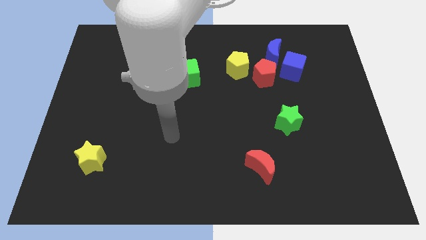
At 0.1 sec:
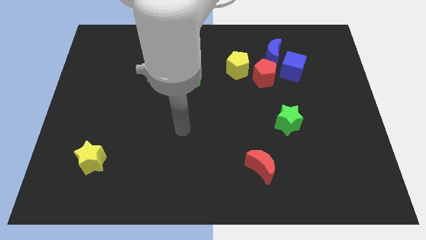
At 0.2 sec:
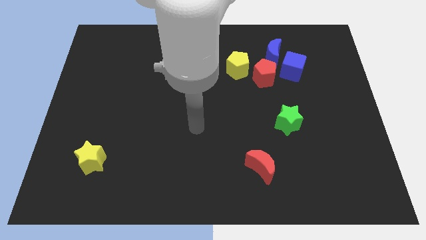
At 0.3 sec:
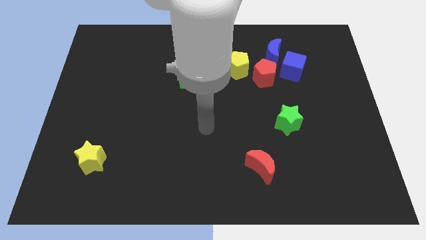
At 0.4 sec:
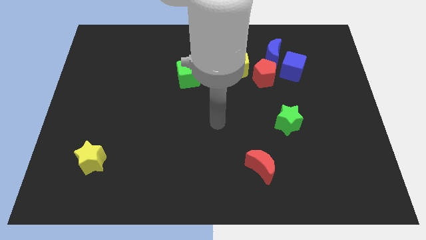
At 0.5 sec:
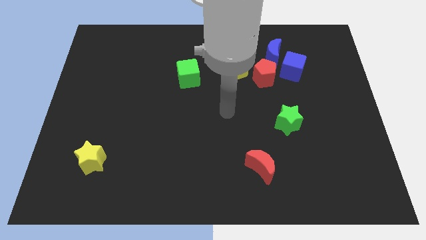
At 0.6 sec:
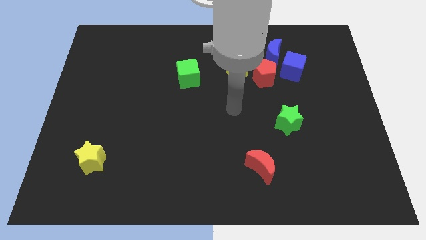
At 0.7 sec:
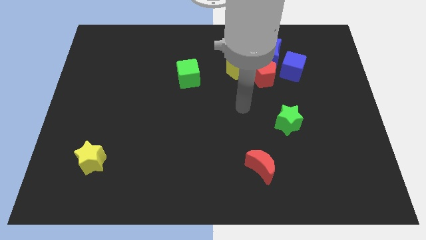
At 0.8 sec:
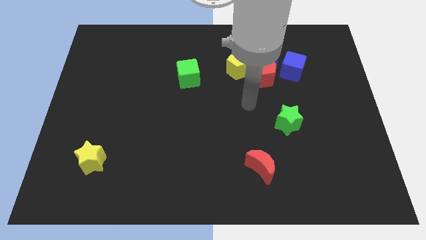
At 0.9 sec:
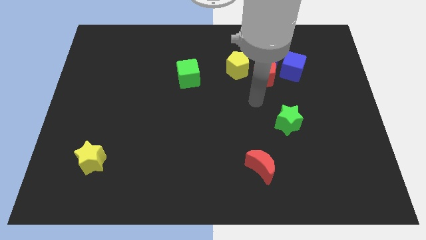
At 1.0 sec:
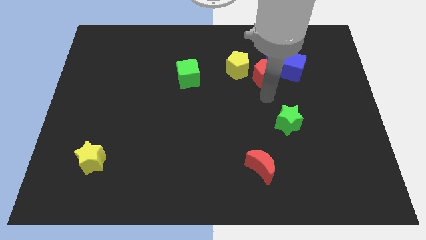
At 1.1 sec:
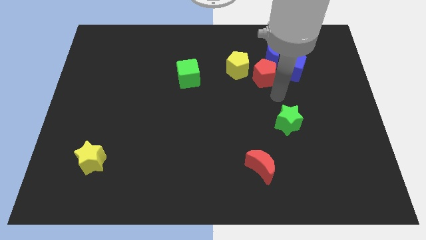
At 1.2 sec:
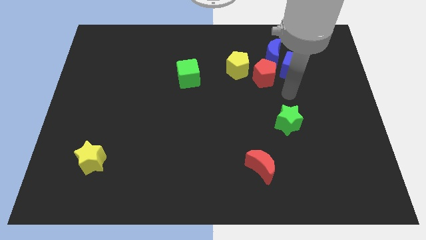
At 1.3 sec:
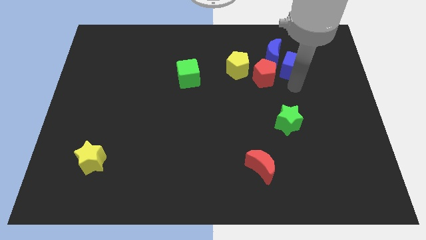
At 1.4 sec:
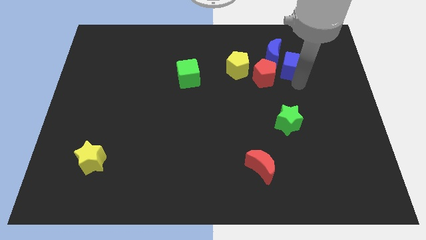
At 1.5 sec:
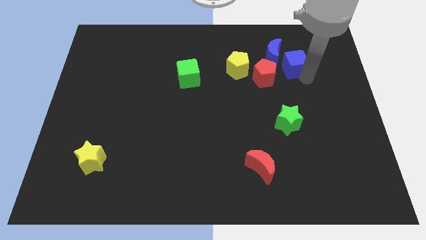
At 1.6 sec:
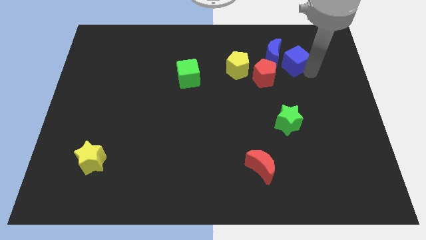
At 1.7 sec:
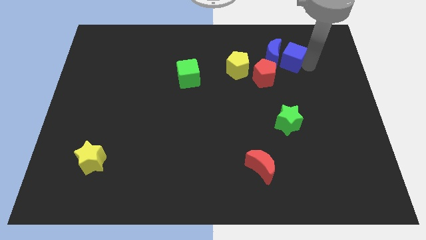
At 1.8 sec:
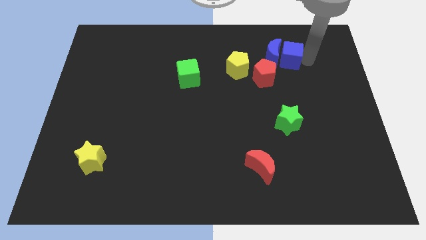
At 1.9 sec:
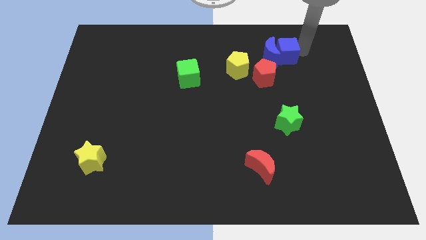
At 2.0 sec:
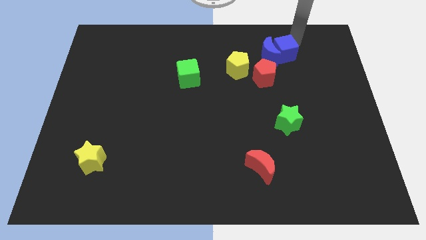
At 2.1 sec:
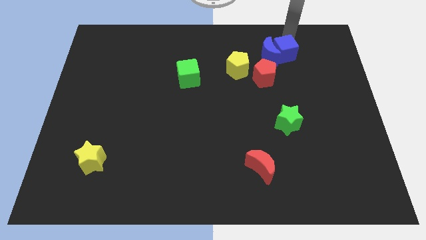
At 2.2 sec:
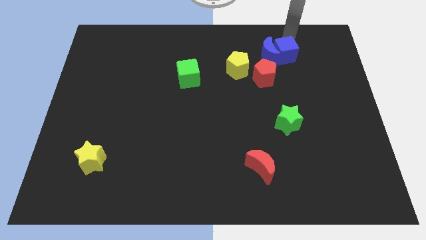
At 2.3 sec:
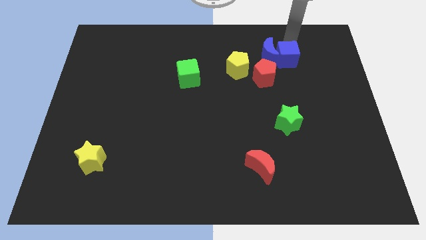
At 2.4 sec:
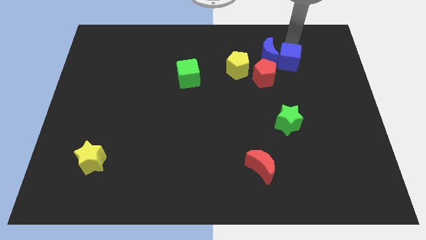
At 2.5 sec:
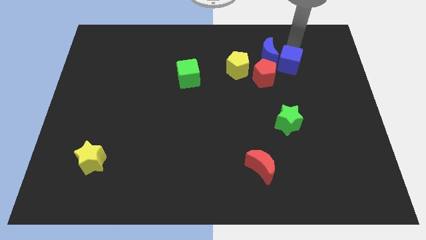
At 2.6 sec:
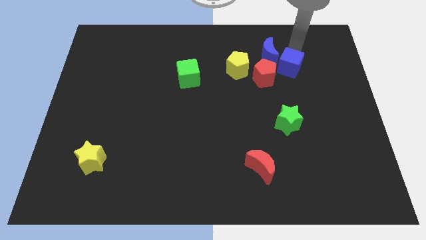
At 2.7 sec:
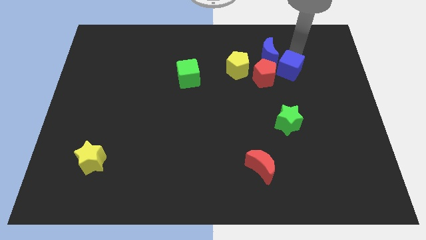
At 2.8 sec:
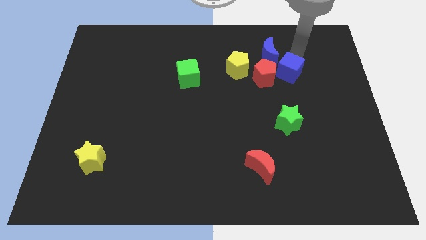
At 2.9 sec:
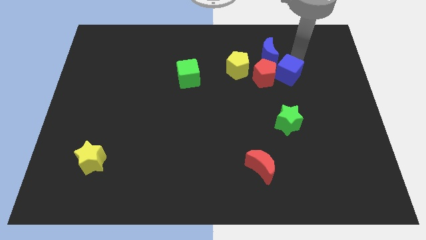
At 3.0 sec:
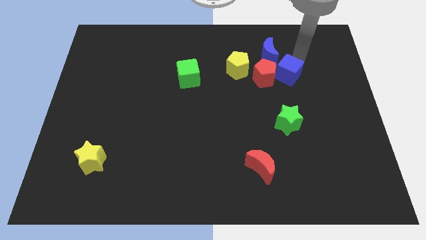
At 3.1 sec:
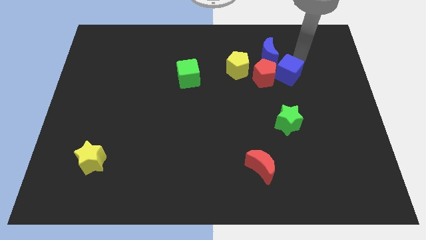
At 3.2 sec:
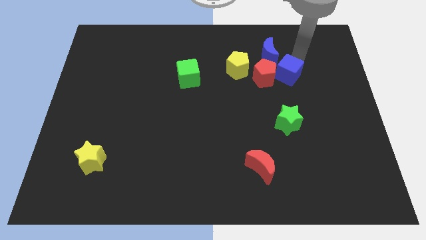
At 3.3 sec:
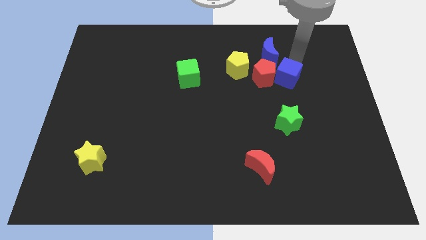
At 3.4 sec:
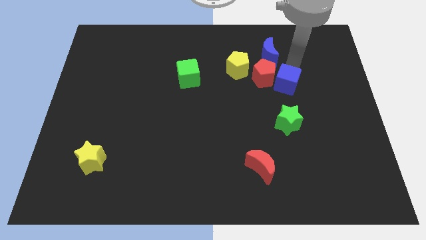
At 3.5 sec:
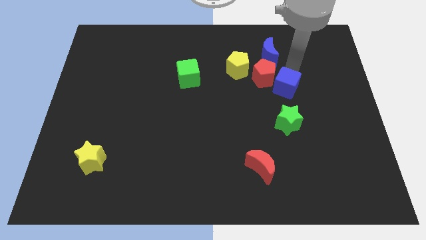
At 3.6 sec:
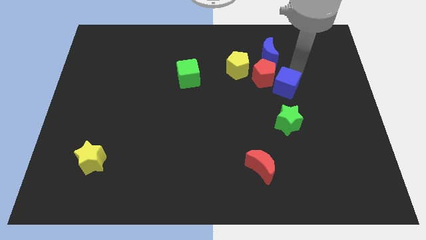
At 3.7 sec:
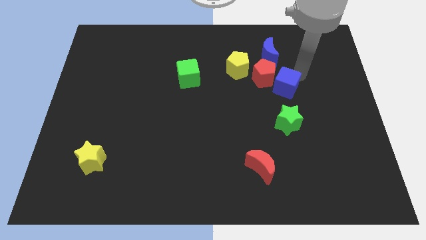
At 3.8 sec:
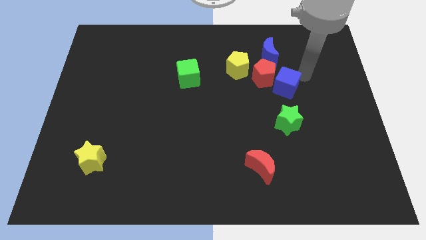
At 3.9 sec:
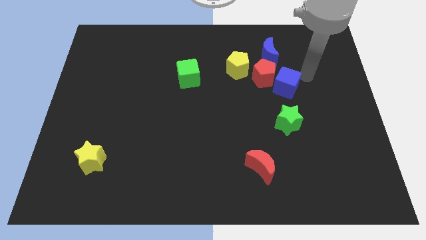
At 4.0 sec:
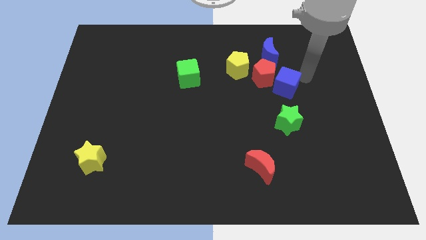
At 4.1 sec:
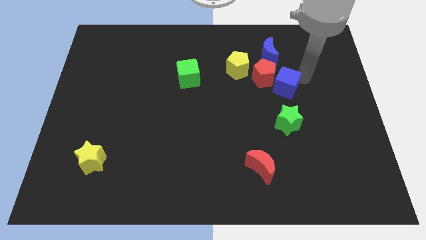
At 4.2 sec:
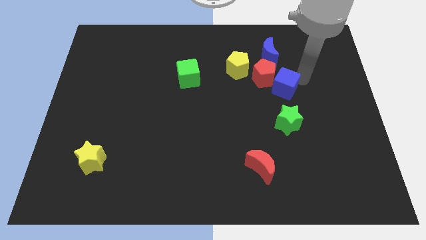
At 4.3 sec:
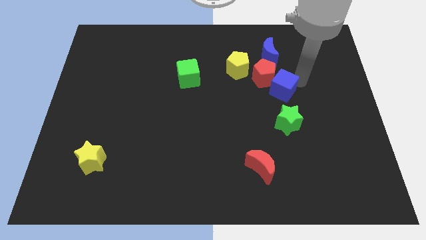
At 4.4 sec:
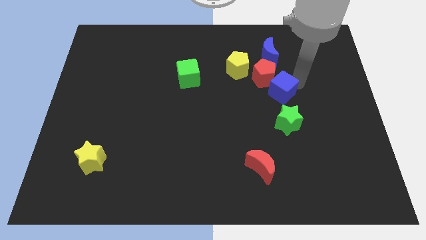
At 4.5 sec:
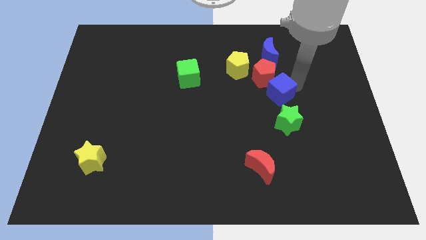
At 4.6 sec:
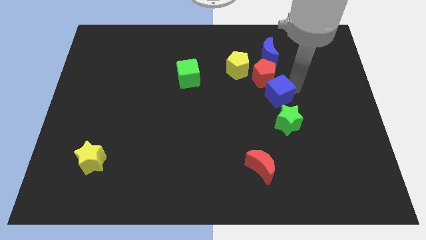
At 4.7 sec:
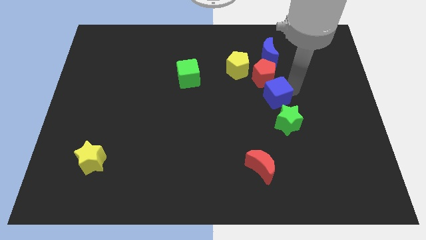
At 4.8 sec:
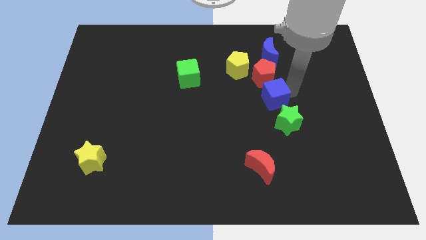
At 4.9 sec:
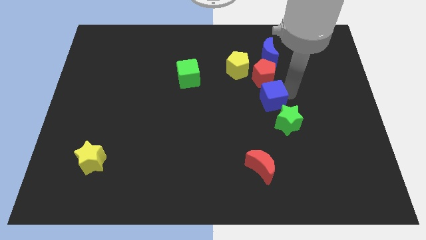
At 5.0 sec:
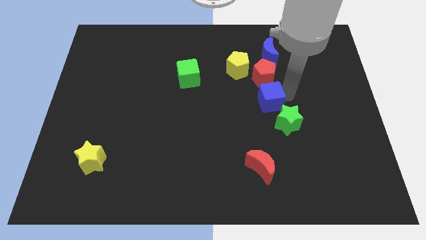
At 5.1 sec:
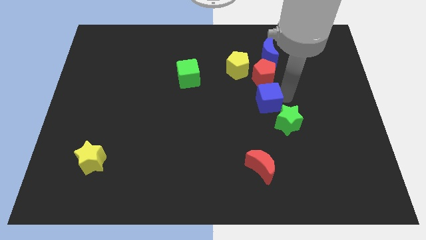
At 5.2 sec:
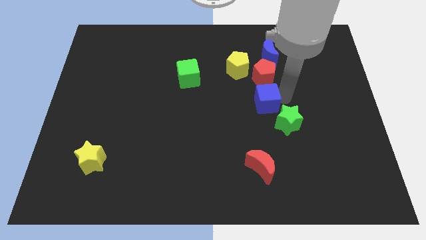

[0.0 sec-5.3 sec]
move the blue cube to the center

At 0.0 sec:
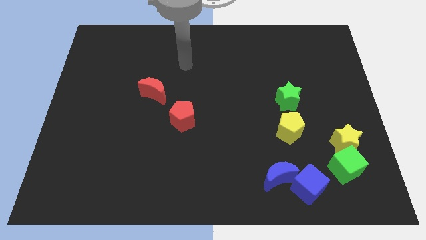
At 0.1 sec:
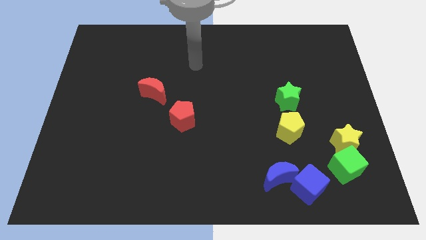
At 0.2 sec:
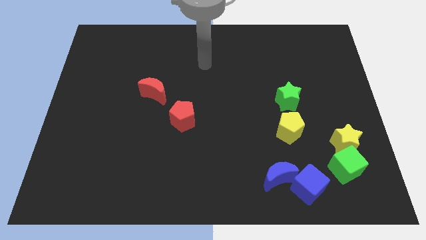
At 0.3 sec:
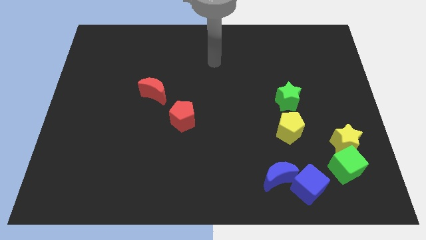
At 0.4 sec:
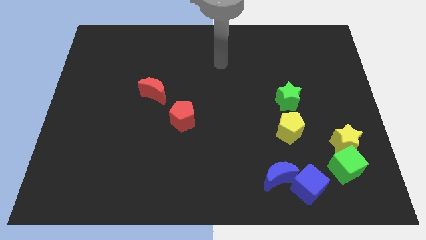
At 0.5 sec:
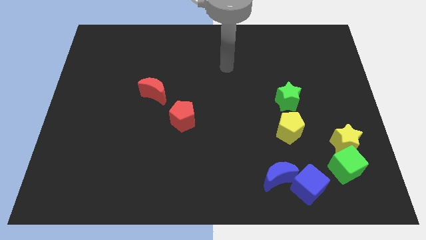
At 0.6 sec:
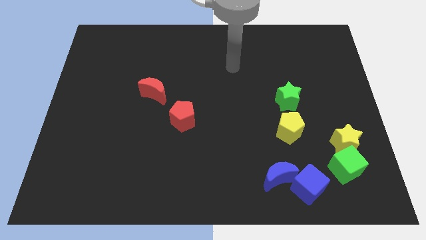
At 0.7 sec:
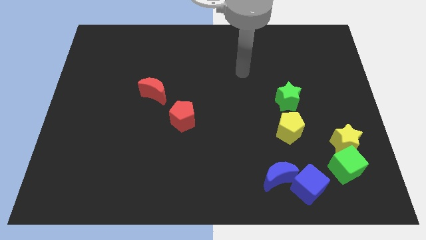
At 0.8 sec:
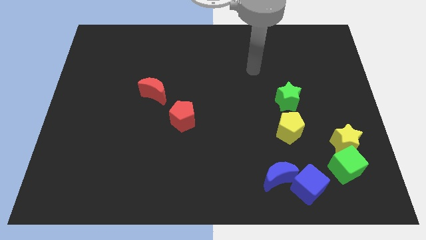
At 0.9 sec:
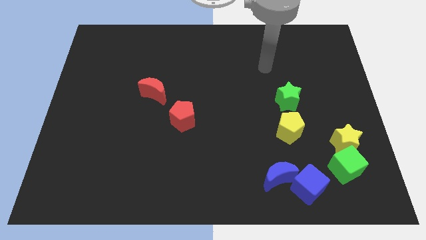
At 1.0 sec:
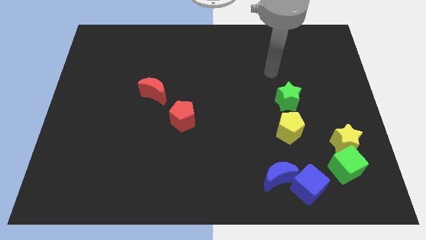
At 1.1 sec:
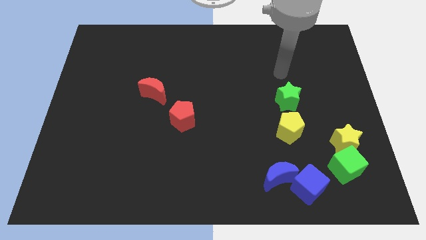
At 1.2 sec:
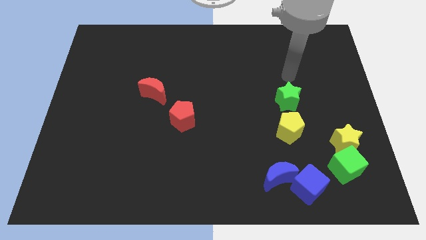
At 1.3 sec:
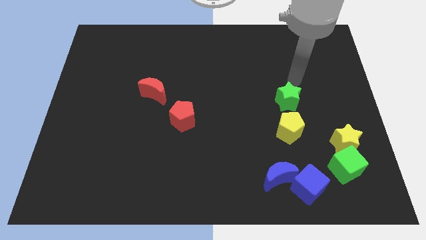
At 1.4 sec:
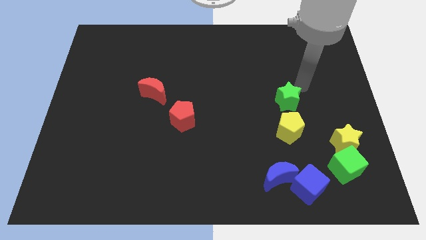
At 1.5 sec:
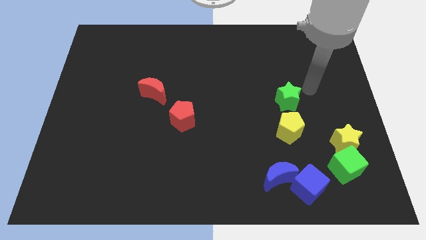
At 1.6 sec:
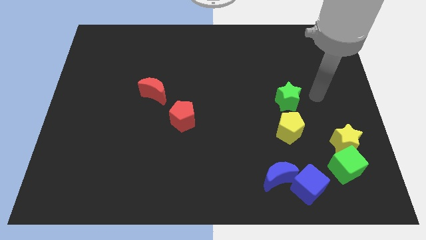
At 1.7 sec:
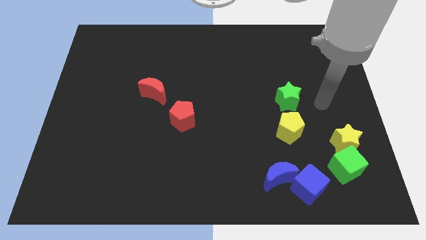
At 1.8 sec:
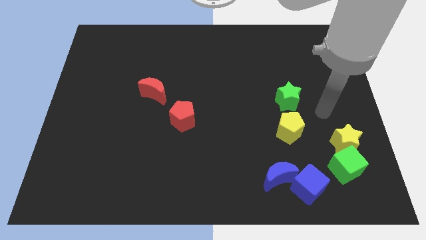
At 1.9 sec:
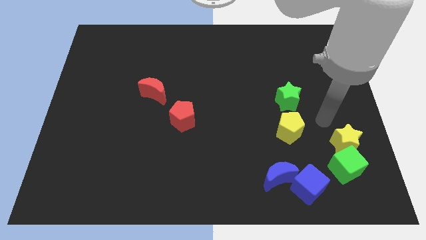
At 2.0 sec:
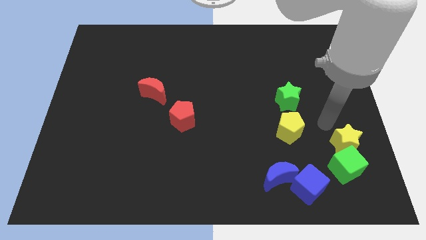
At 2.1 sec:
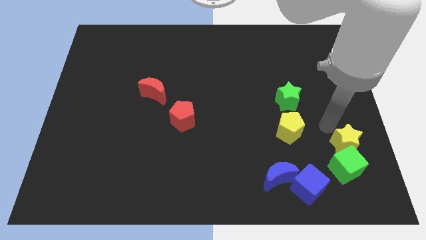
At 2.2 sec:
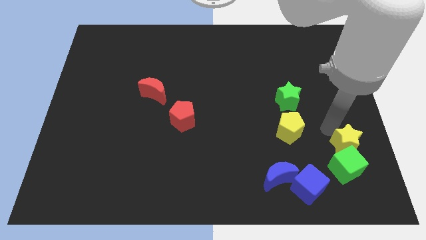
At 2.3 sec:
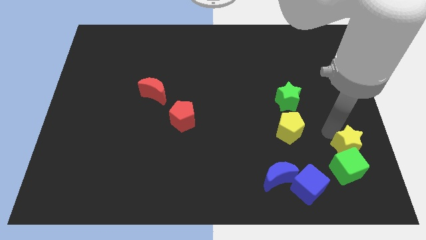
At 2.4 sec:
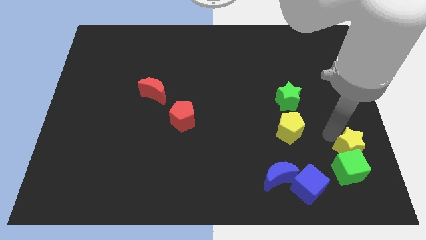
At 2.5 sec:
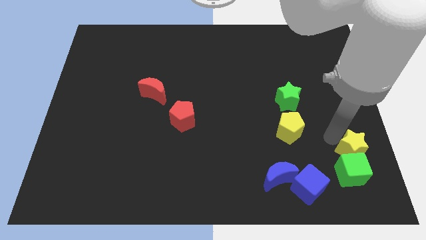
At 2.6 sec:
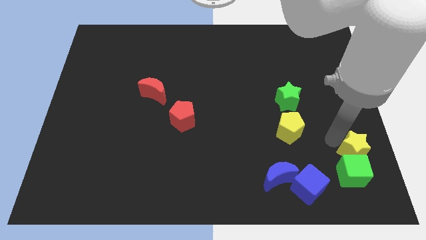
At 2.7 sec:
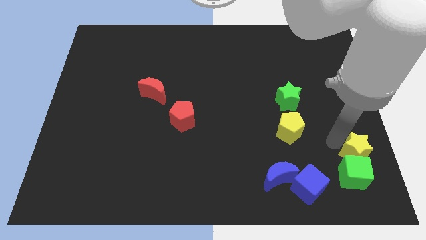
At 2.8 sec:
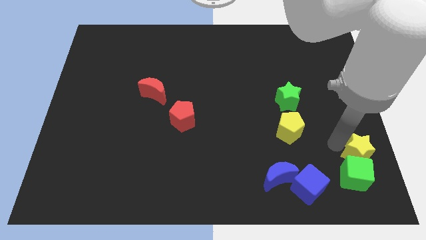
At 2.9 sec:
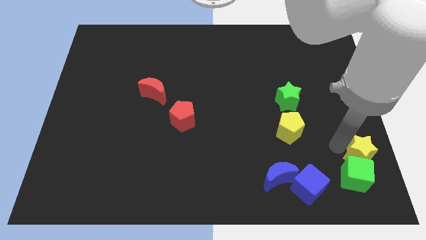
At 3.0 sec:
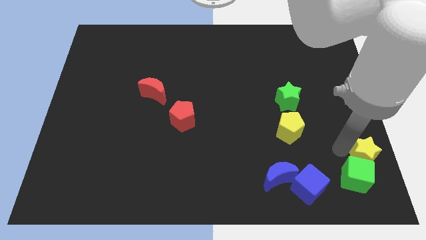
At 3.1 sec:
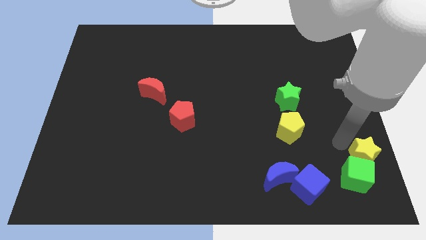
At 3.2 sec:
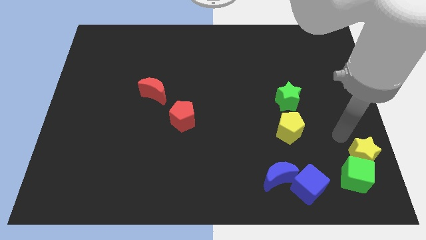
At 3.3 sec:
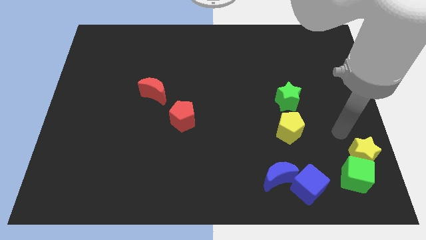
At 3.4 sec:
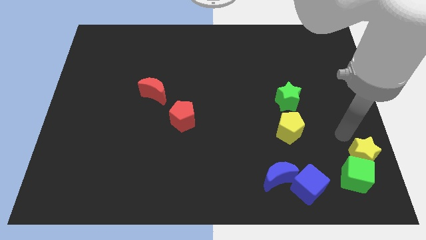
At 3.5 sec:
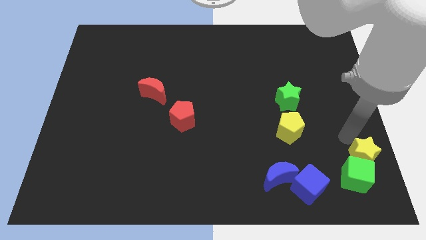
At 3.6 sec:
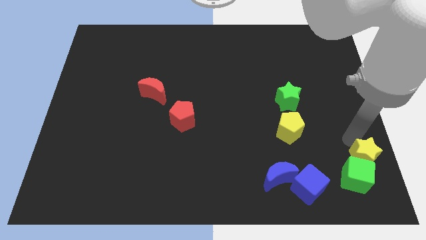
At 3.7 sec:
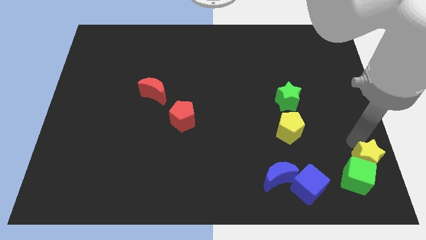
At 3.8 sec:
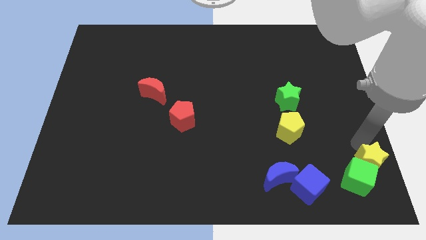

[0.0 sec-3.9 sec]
slide the yellow star to the lower right corner
